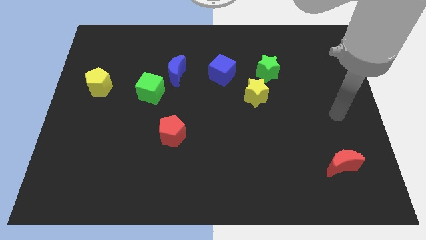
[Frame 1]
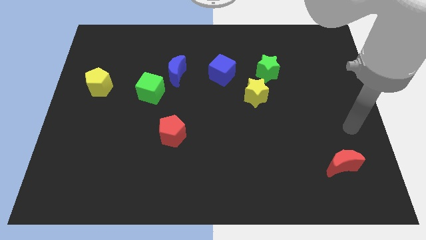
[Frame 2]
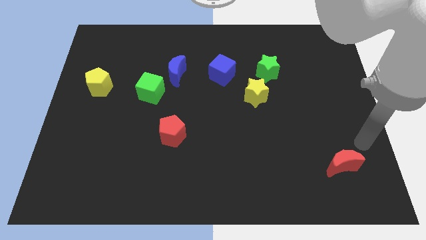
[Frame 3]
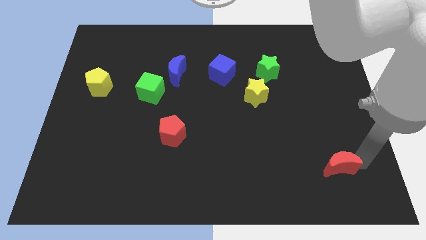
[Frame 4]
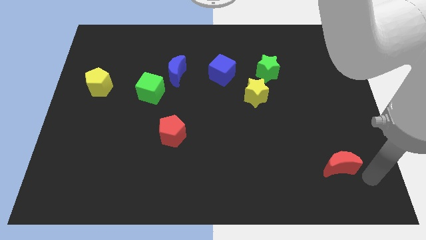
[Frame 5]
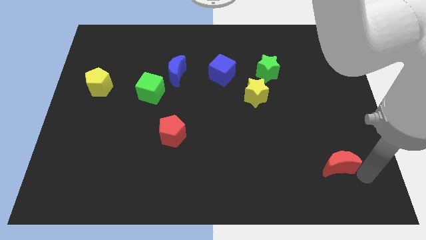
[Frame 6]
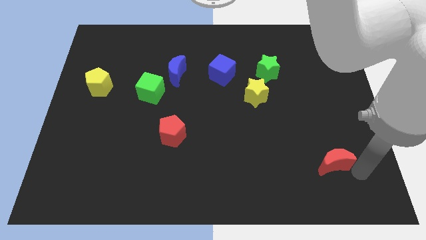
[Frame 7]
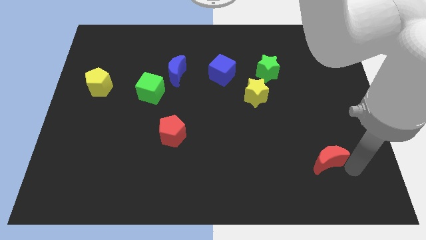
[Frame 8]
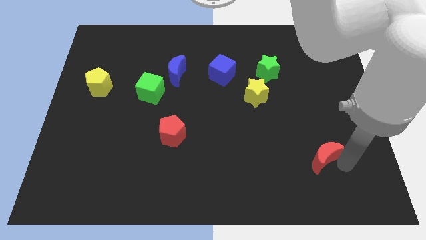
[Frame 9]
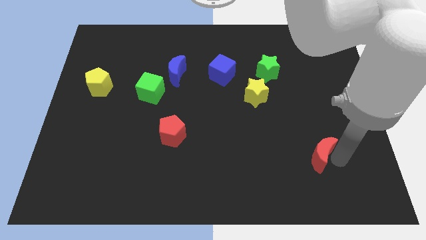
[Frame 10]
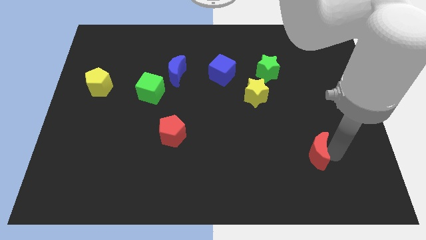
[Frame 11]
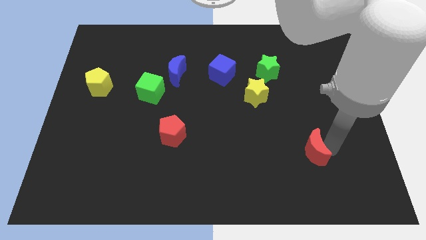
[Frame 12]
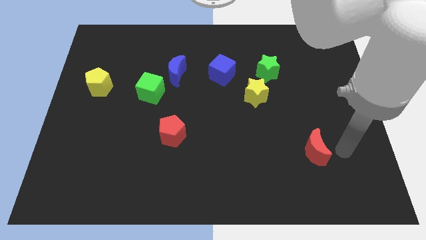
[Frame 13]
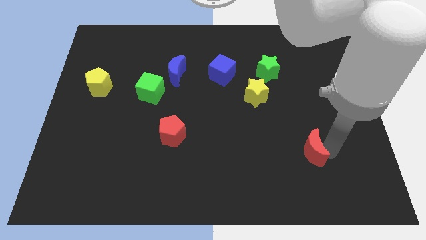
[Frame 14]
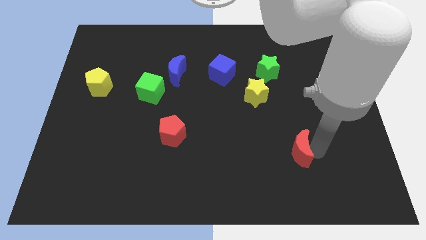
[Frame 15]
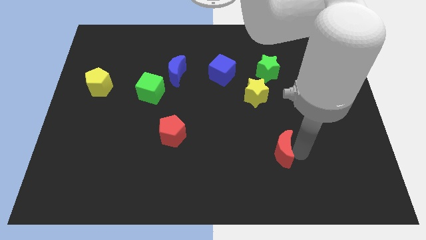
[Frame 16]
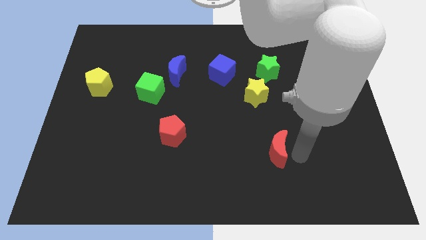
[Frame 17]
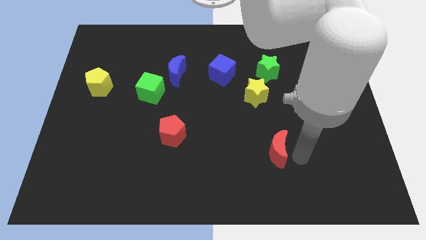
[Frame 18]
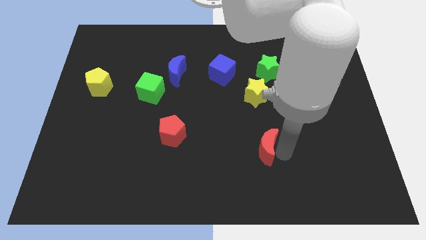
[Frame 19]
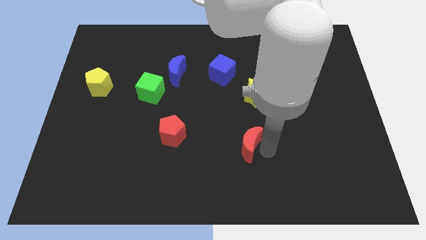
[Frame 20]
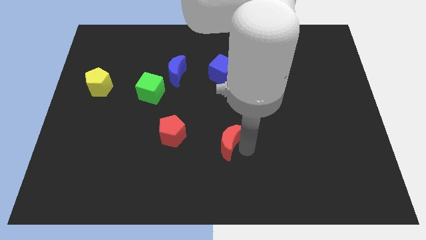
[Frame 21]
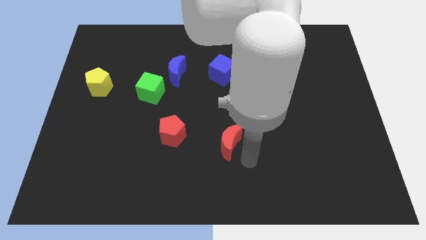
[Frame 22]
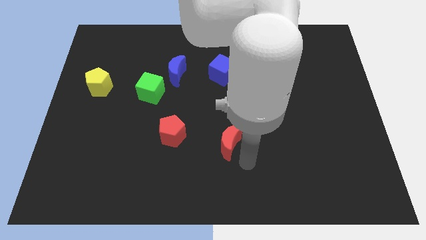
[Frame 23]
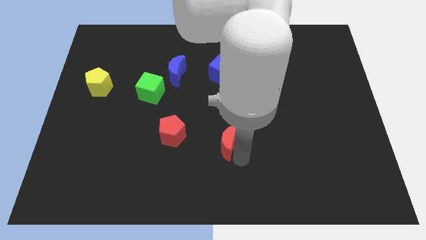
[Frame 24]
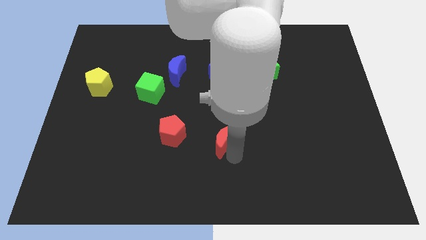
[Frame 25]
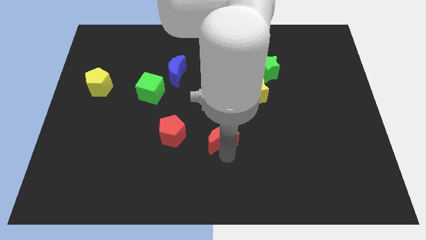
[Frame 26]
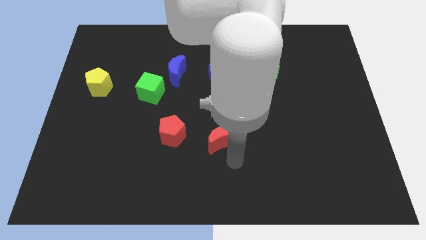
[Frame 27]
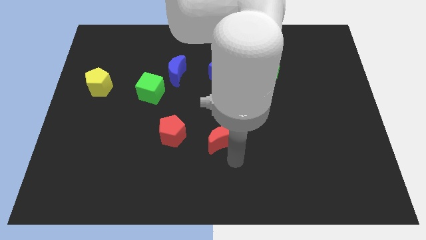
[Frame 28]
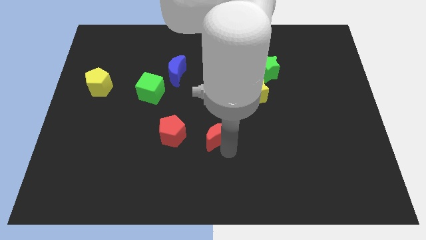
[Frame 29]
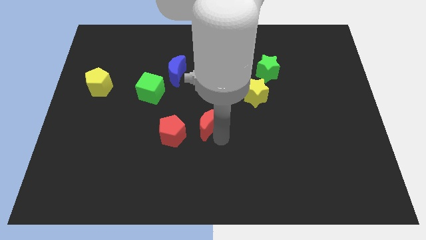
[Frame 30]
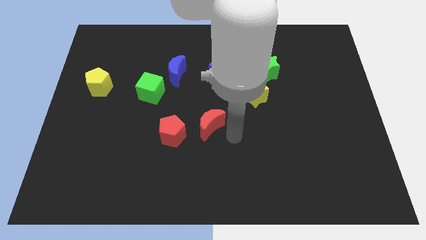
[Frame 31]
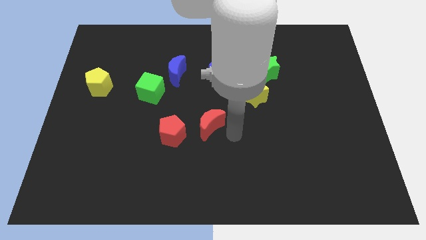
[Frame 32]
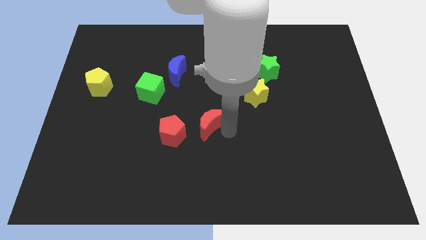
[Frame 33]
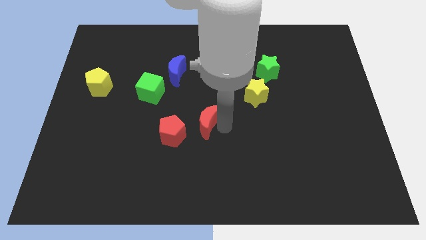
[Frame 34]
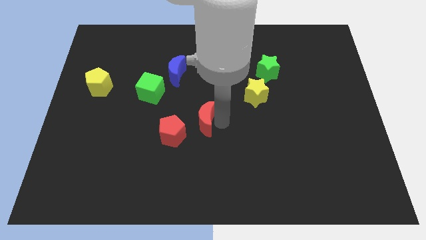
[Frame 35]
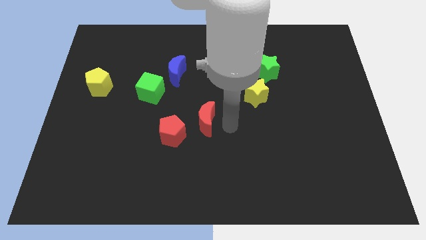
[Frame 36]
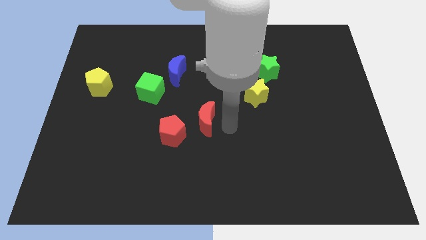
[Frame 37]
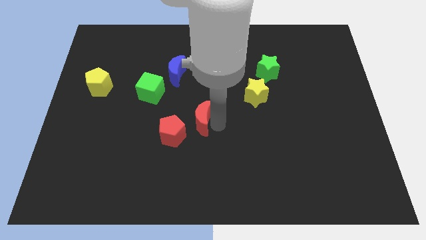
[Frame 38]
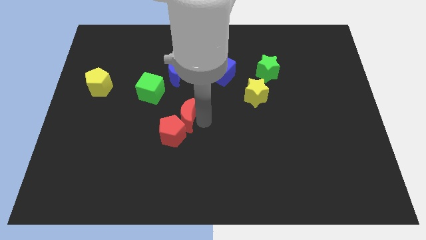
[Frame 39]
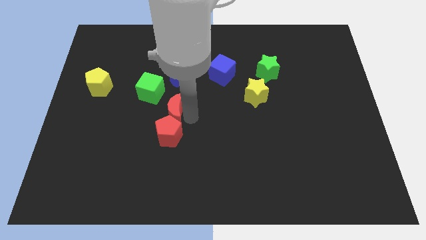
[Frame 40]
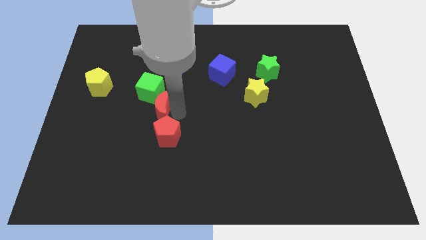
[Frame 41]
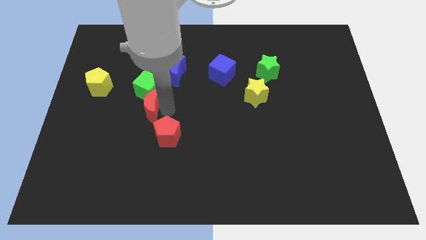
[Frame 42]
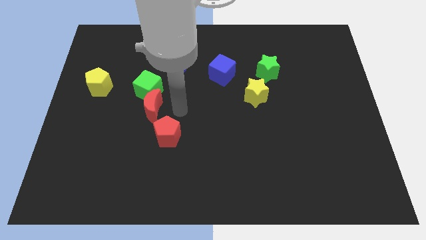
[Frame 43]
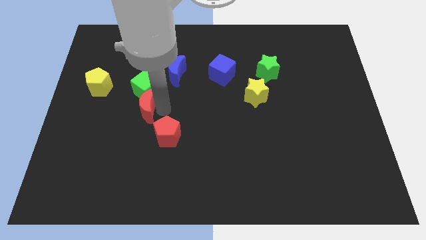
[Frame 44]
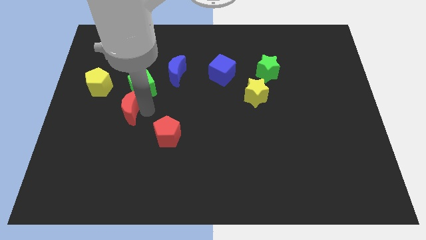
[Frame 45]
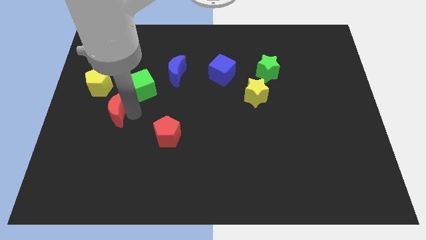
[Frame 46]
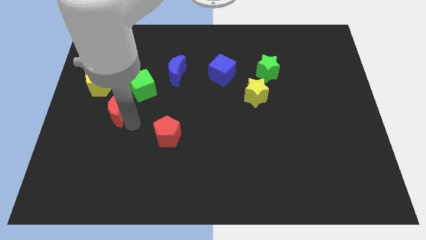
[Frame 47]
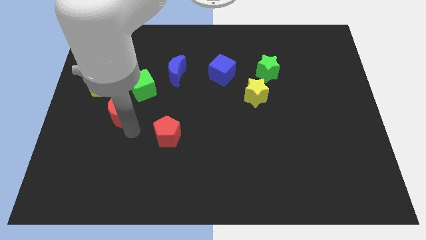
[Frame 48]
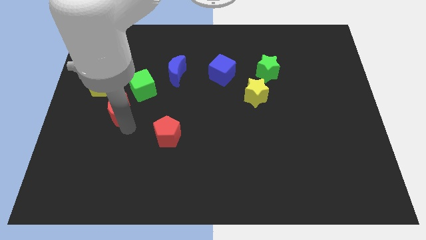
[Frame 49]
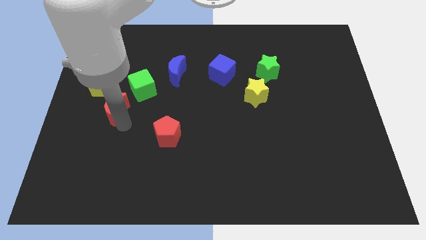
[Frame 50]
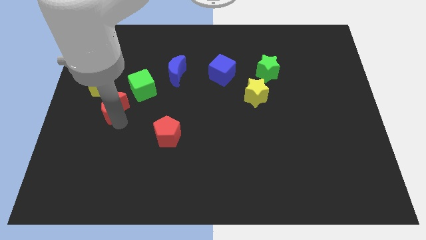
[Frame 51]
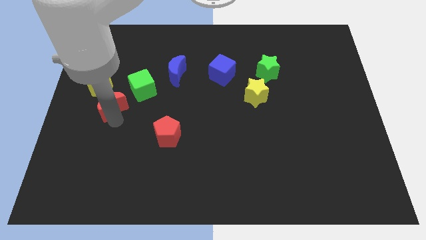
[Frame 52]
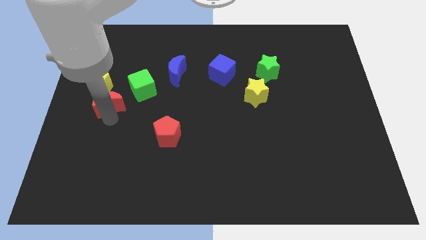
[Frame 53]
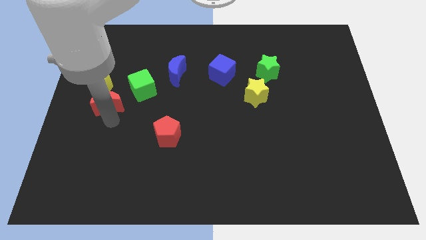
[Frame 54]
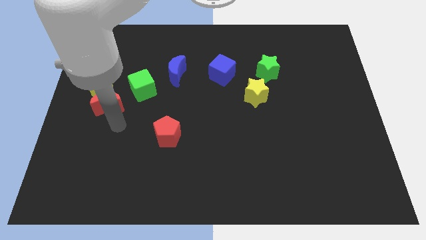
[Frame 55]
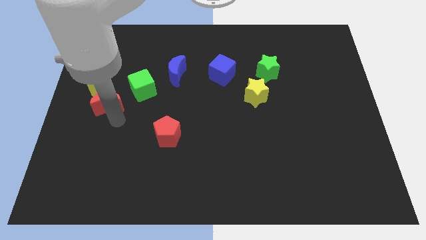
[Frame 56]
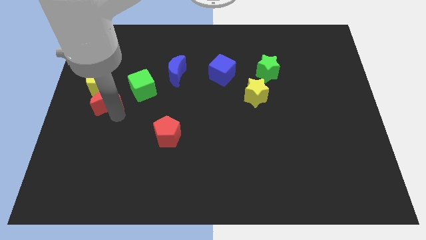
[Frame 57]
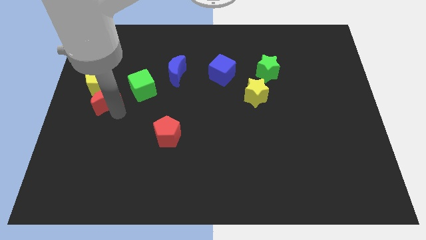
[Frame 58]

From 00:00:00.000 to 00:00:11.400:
slide the red moon to the yellow pentagon

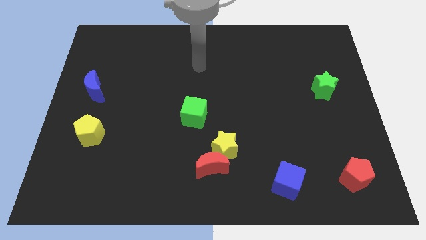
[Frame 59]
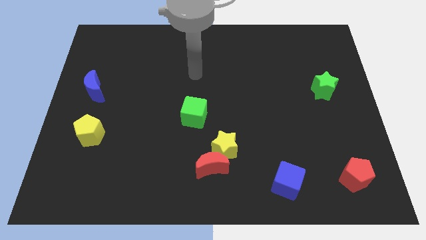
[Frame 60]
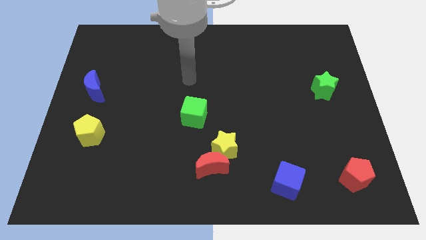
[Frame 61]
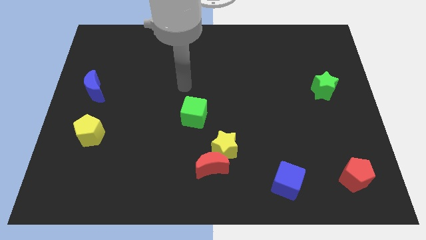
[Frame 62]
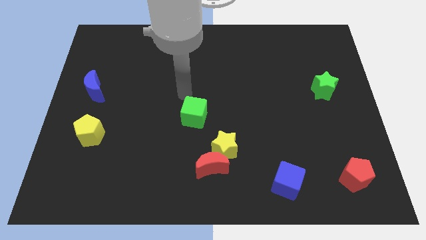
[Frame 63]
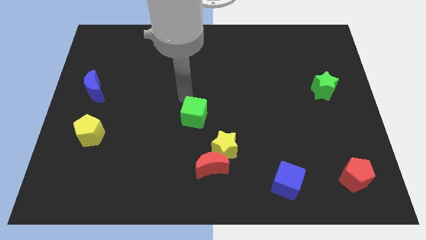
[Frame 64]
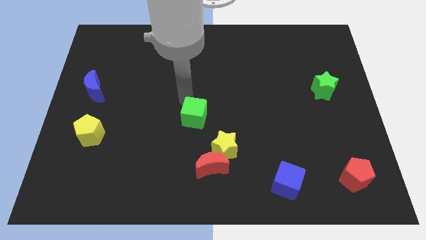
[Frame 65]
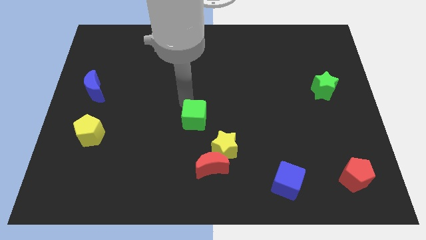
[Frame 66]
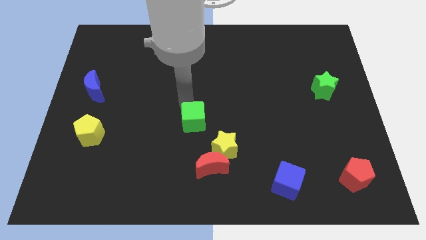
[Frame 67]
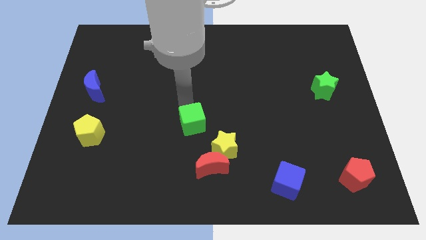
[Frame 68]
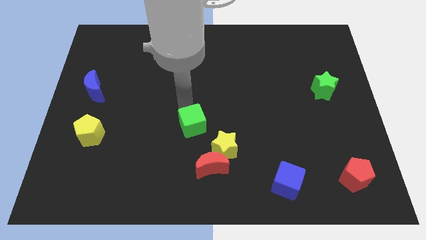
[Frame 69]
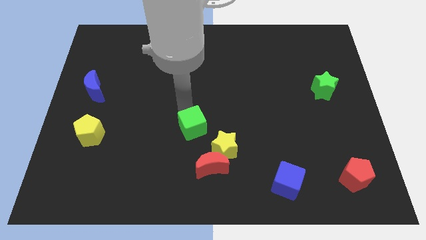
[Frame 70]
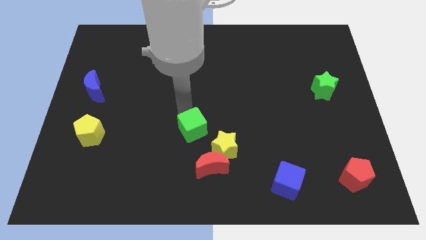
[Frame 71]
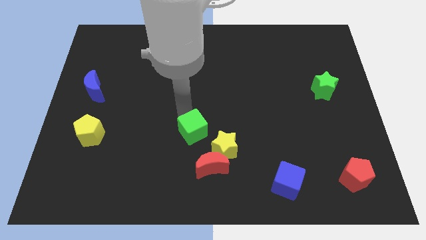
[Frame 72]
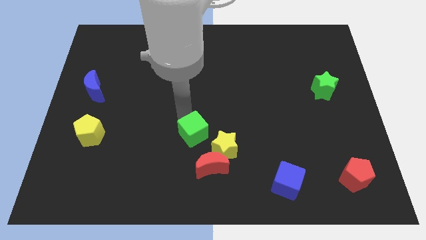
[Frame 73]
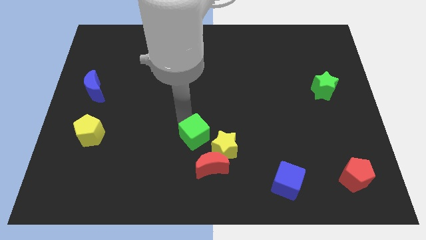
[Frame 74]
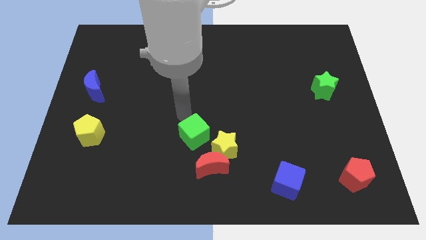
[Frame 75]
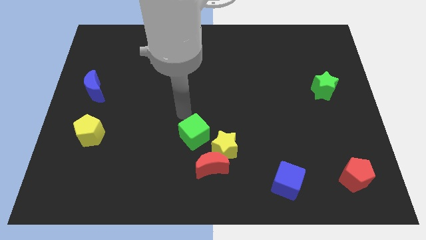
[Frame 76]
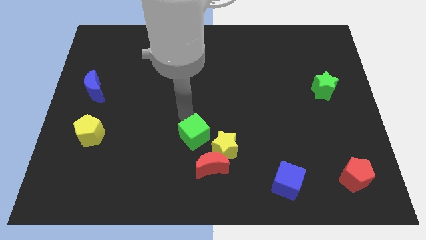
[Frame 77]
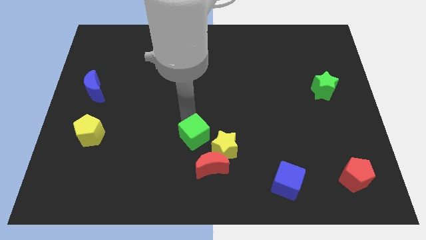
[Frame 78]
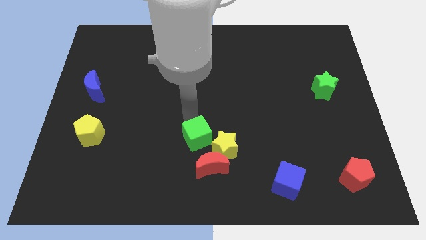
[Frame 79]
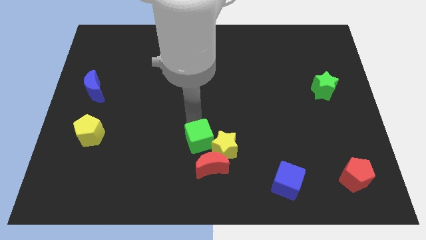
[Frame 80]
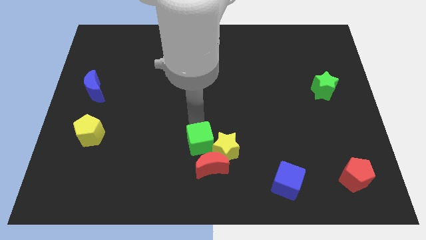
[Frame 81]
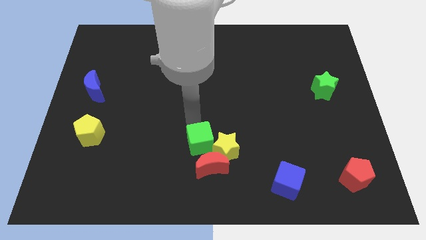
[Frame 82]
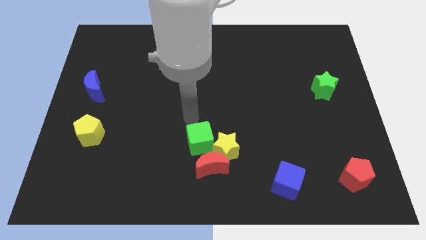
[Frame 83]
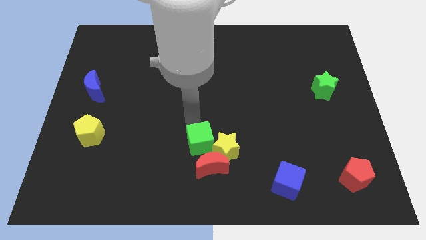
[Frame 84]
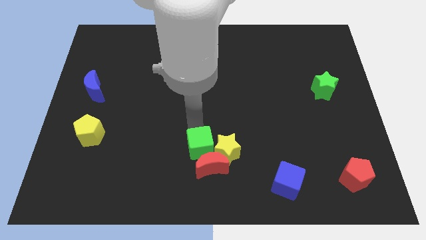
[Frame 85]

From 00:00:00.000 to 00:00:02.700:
move the green cube next to the red moon
